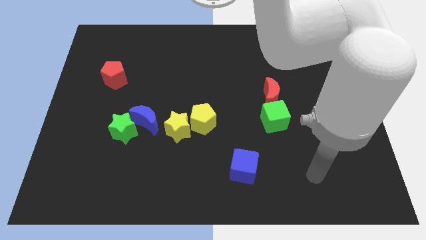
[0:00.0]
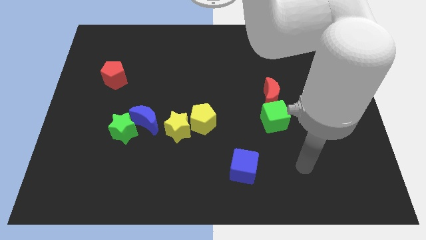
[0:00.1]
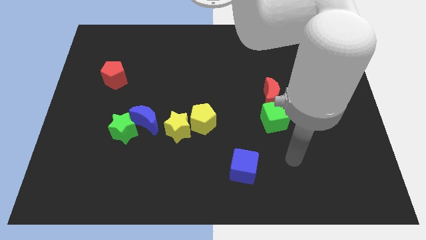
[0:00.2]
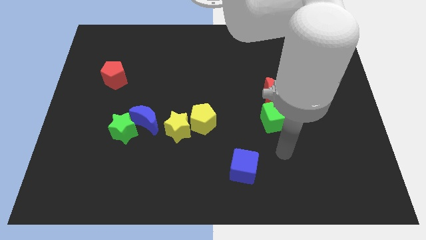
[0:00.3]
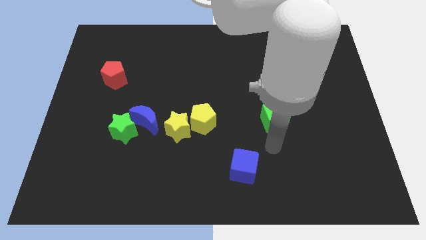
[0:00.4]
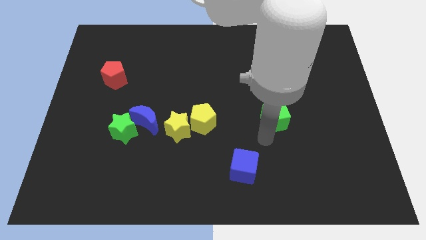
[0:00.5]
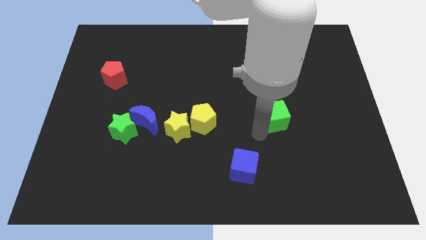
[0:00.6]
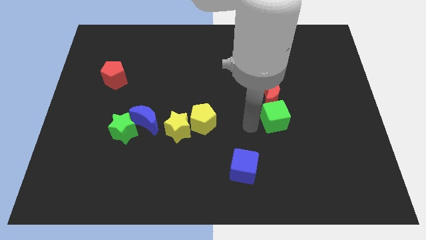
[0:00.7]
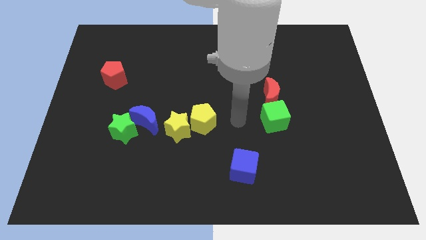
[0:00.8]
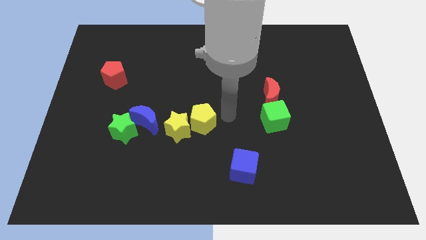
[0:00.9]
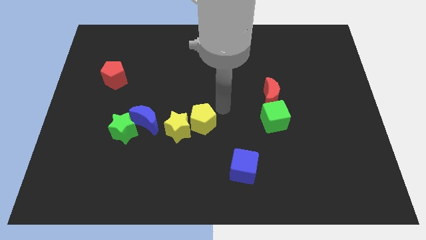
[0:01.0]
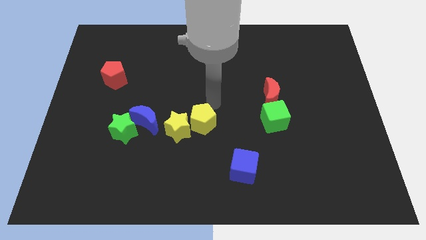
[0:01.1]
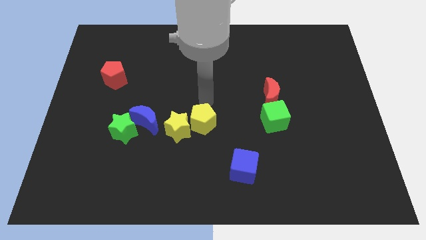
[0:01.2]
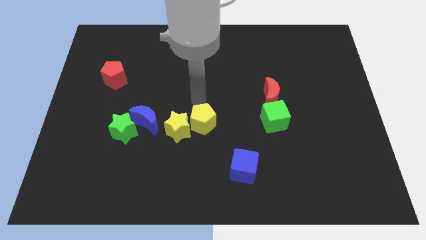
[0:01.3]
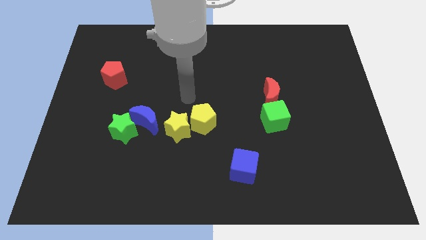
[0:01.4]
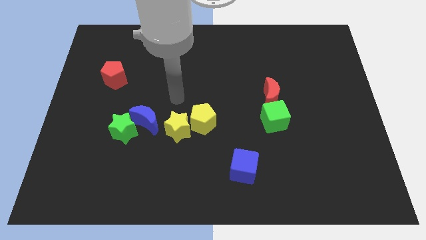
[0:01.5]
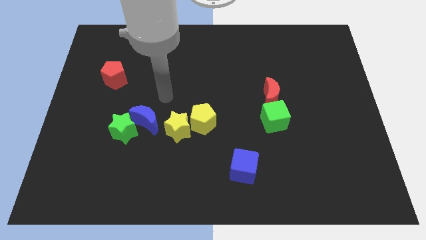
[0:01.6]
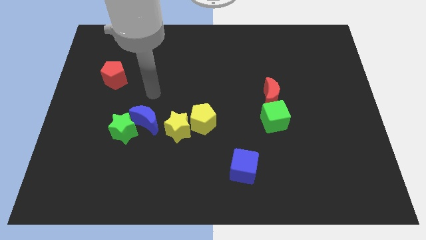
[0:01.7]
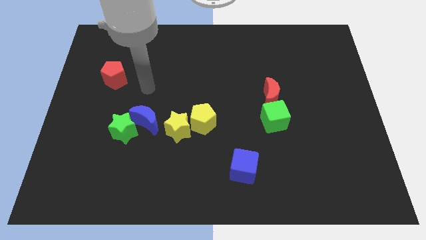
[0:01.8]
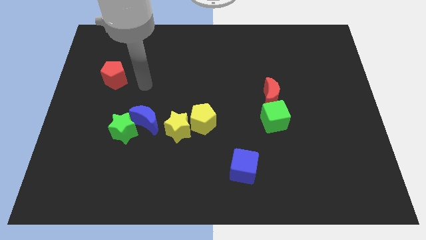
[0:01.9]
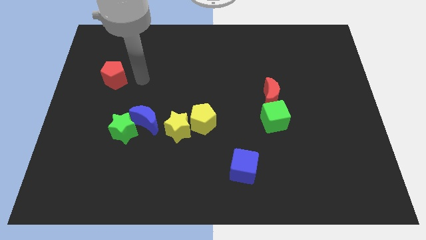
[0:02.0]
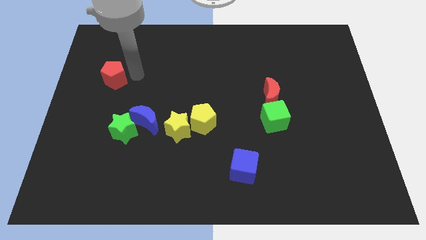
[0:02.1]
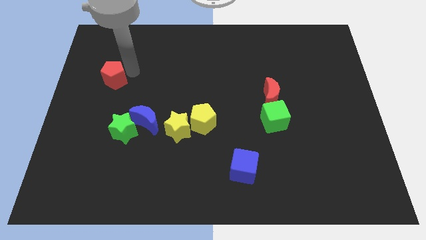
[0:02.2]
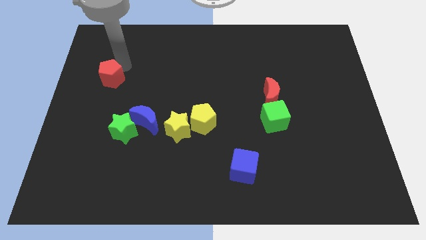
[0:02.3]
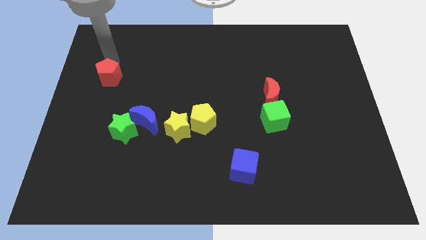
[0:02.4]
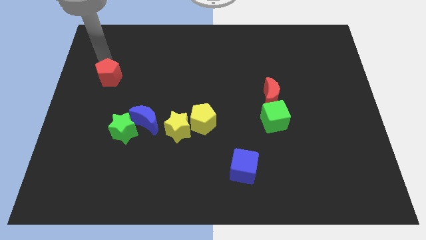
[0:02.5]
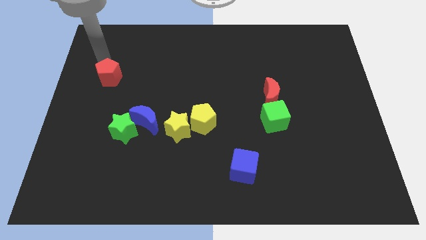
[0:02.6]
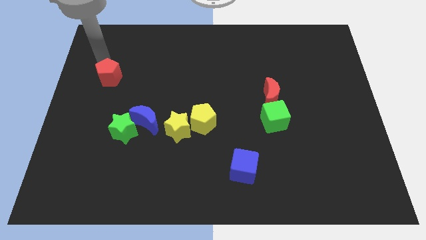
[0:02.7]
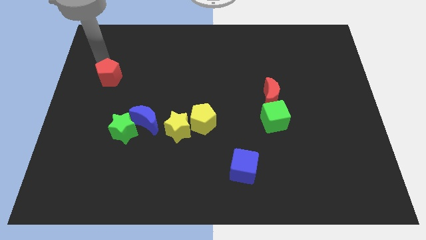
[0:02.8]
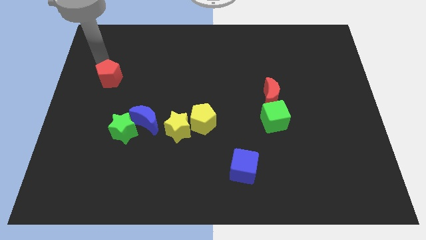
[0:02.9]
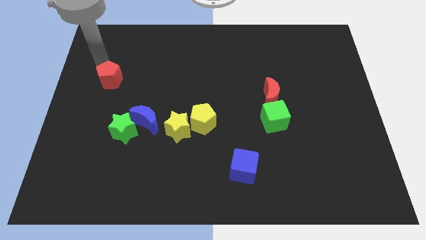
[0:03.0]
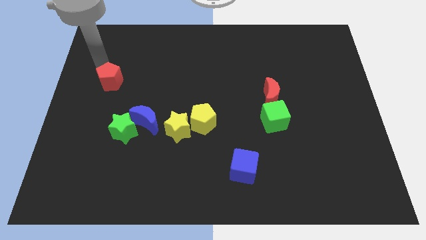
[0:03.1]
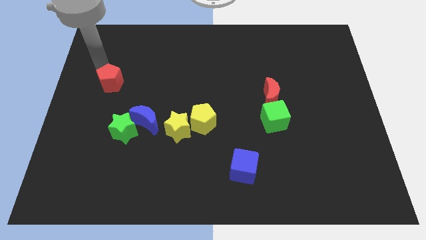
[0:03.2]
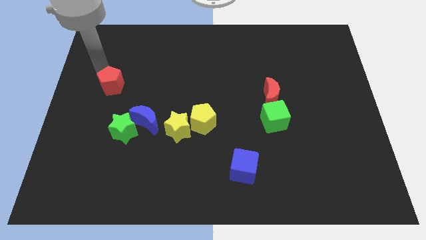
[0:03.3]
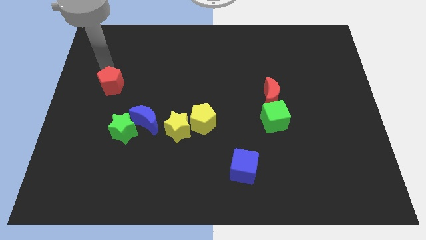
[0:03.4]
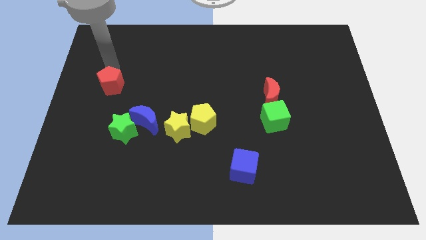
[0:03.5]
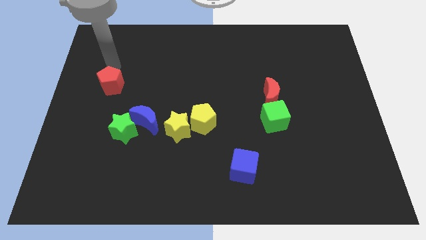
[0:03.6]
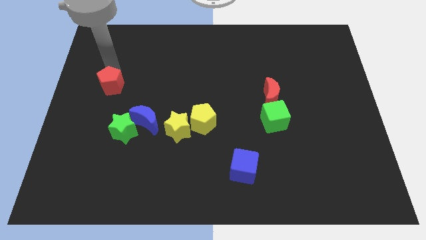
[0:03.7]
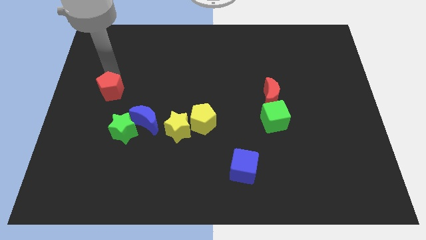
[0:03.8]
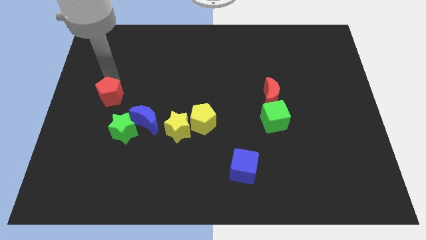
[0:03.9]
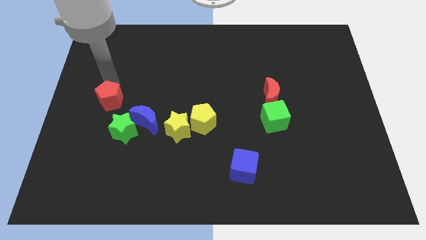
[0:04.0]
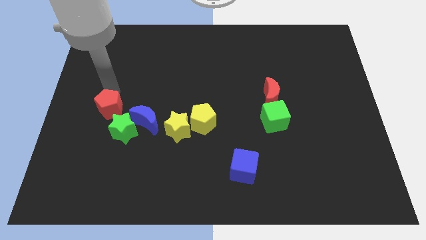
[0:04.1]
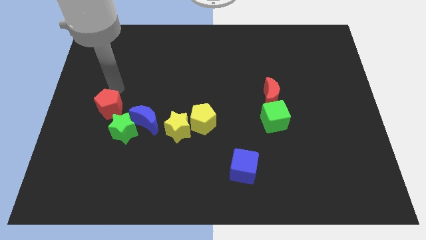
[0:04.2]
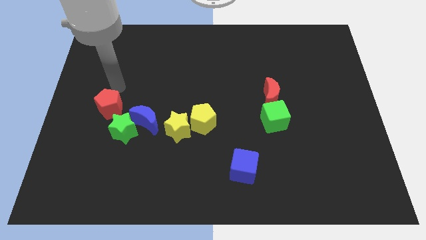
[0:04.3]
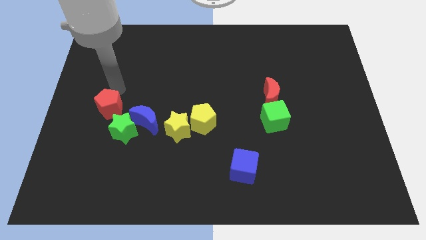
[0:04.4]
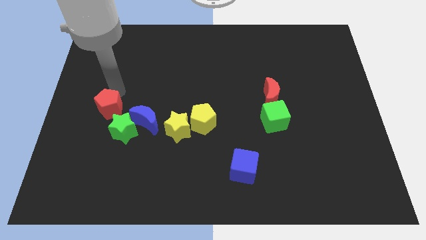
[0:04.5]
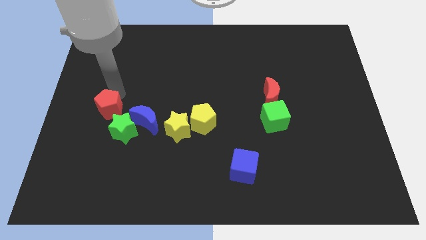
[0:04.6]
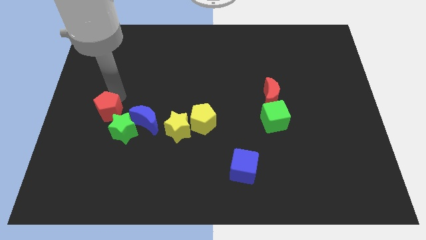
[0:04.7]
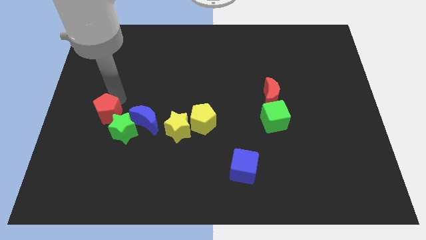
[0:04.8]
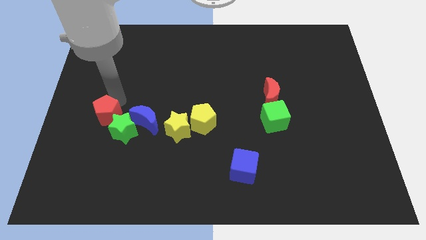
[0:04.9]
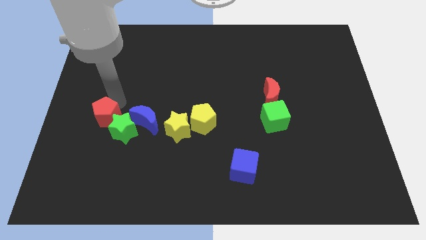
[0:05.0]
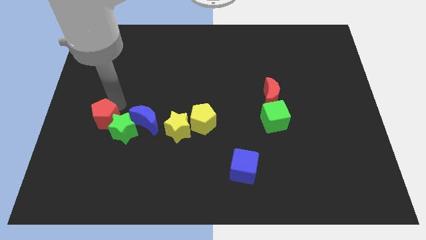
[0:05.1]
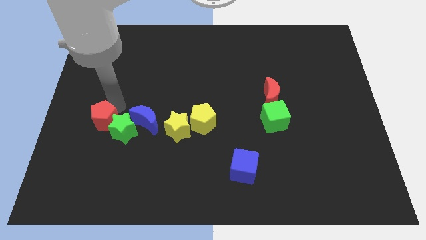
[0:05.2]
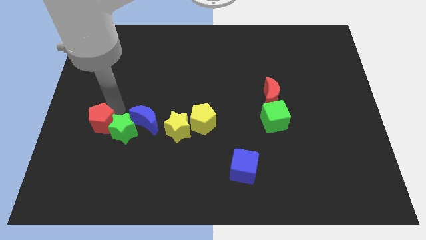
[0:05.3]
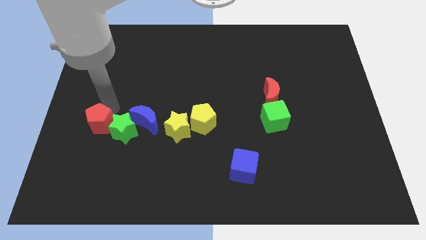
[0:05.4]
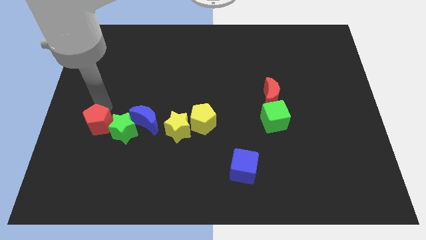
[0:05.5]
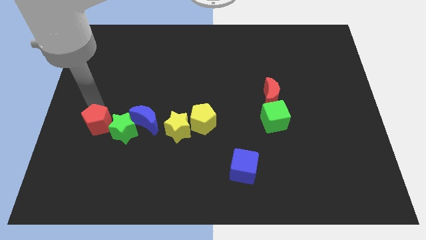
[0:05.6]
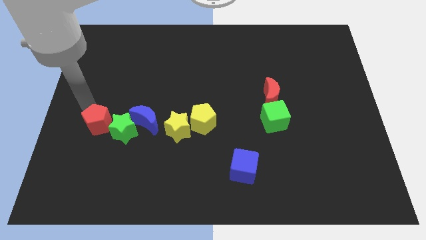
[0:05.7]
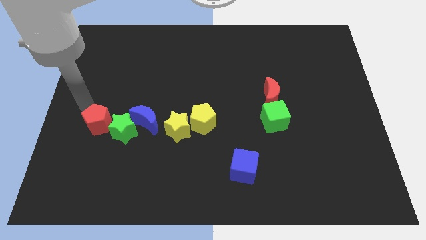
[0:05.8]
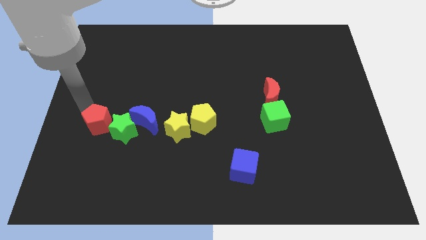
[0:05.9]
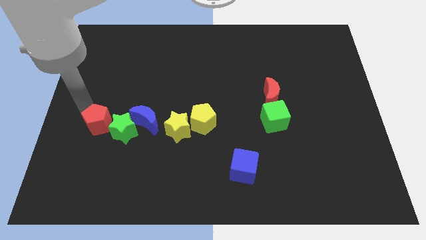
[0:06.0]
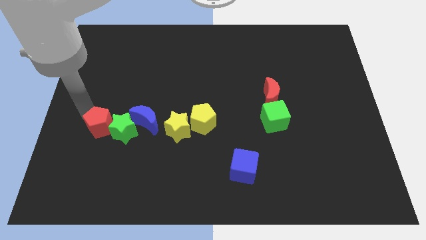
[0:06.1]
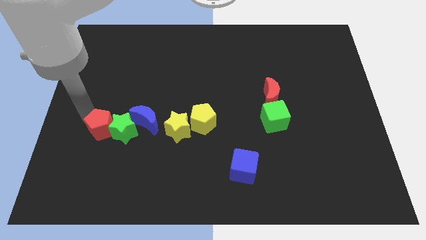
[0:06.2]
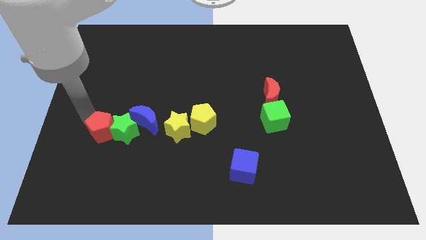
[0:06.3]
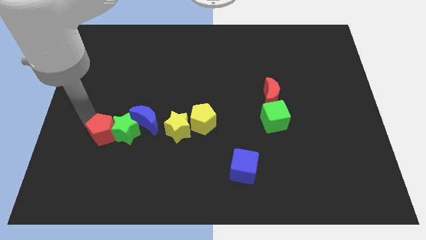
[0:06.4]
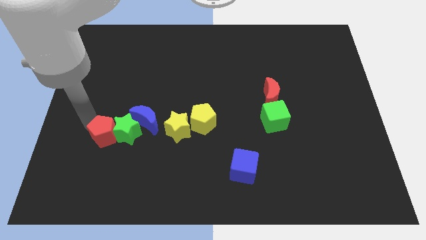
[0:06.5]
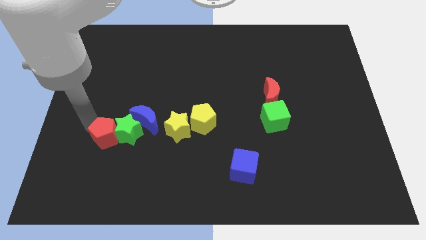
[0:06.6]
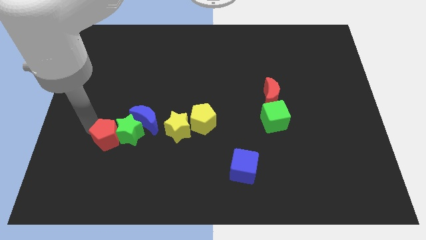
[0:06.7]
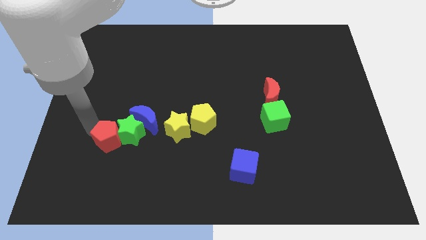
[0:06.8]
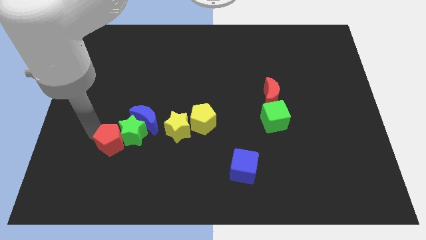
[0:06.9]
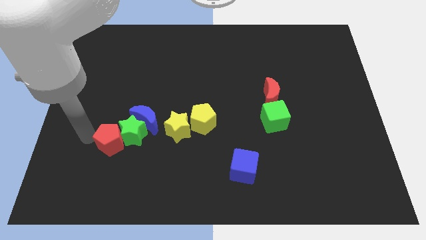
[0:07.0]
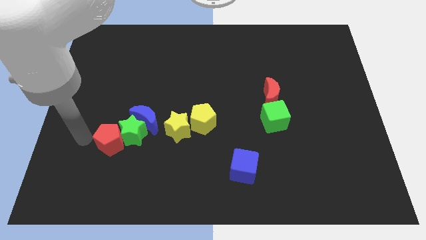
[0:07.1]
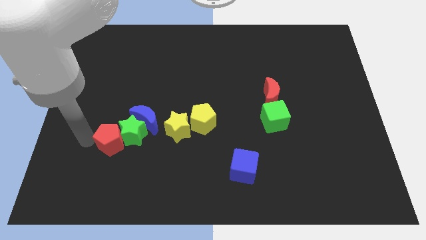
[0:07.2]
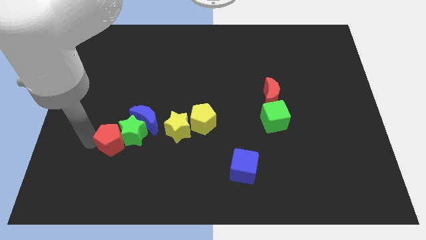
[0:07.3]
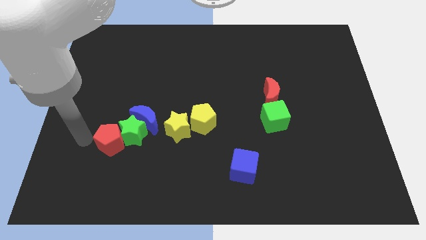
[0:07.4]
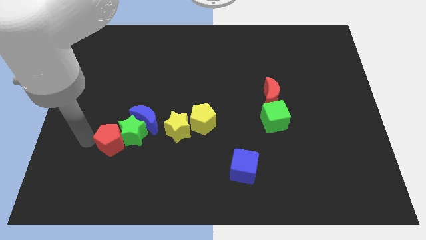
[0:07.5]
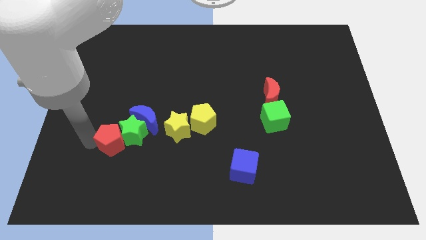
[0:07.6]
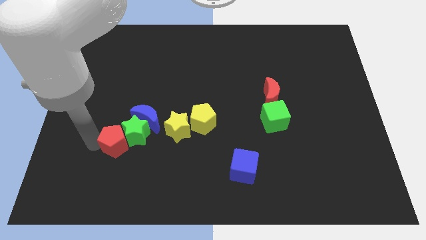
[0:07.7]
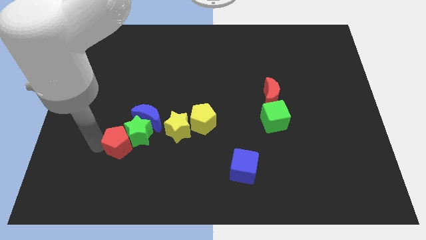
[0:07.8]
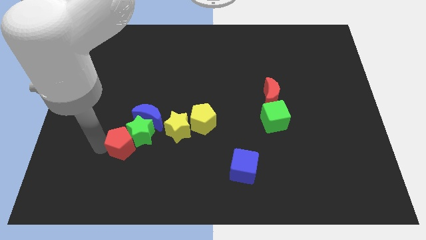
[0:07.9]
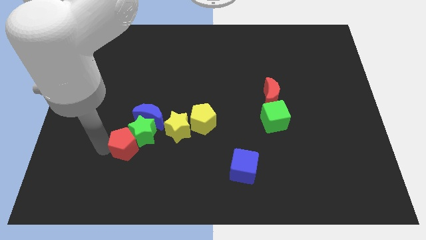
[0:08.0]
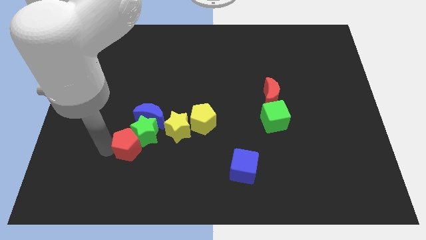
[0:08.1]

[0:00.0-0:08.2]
slide the red pentagon to the bottom left of the yellow star
